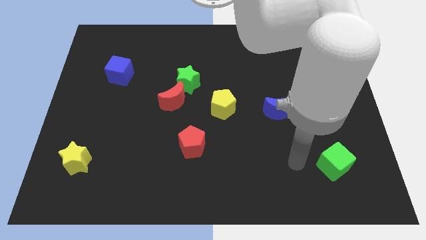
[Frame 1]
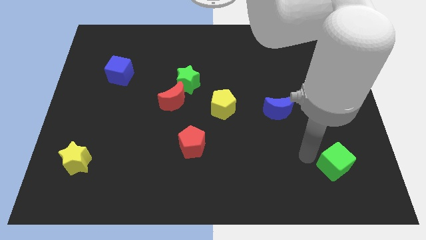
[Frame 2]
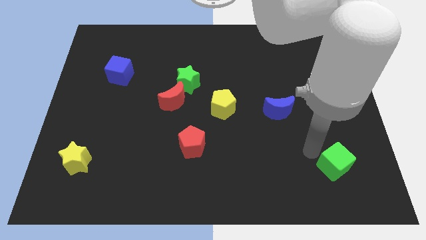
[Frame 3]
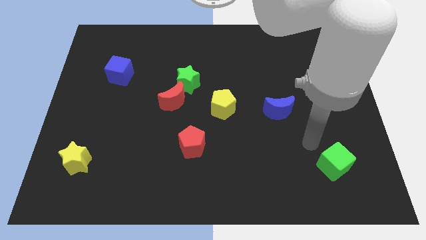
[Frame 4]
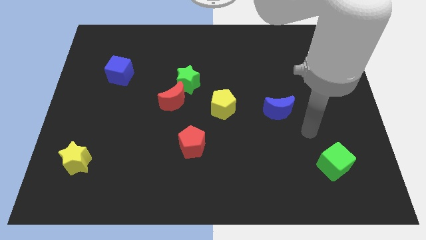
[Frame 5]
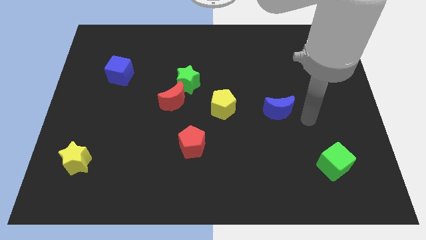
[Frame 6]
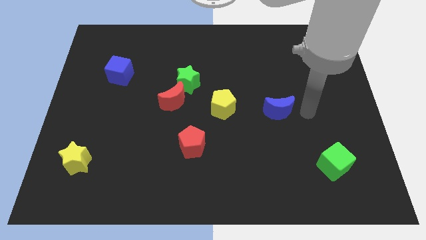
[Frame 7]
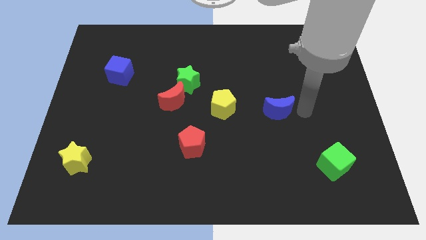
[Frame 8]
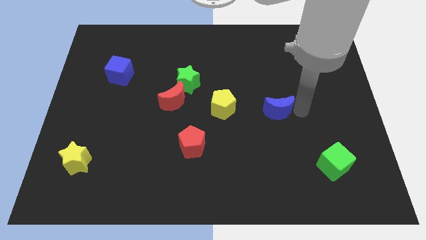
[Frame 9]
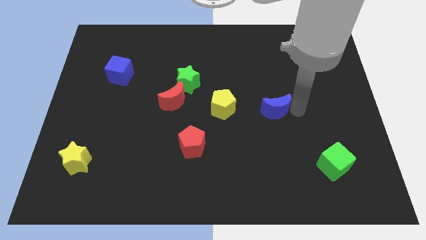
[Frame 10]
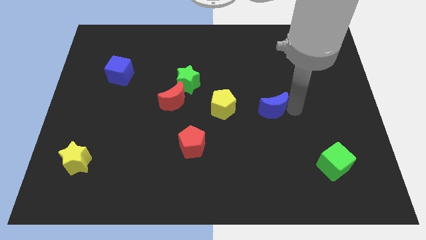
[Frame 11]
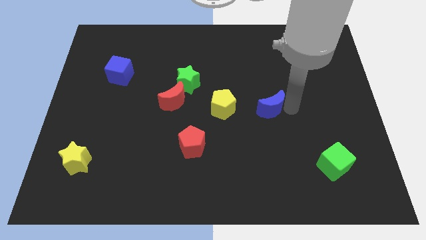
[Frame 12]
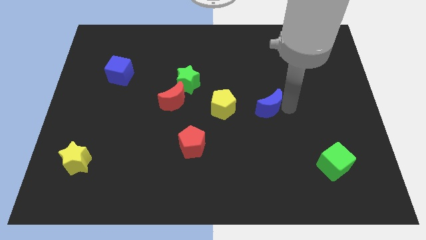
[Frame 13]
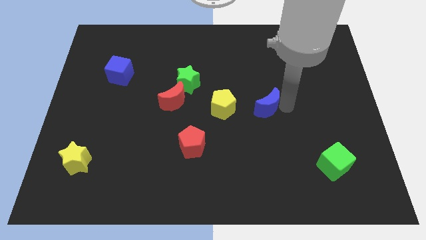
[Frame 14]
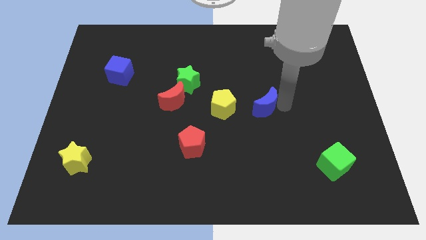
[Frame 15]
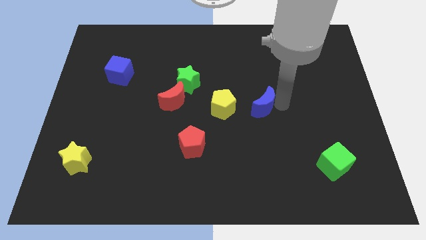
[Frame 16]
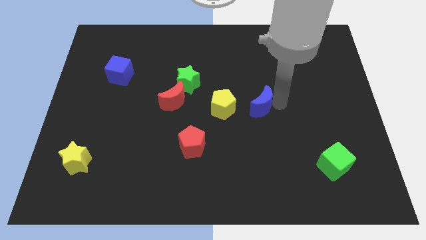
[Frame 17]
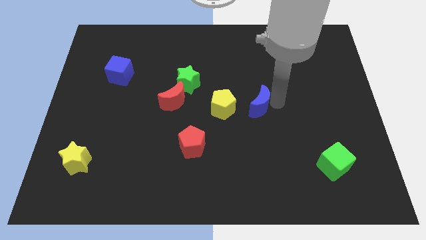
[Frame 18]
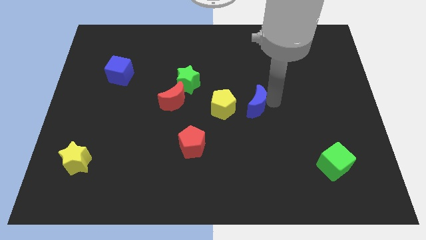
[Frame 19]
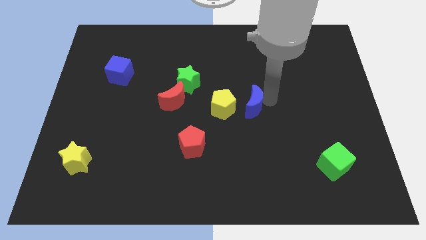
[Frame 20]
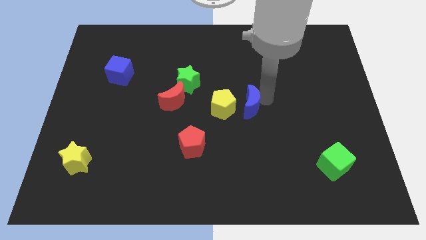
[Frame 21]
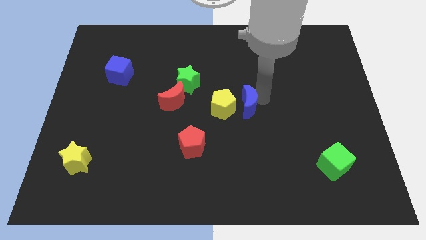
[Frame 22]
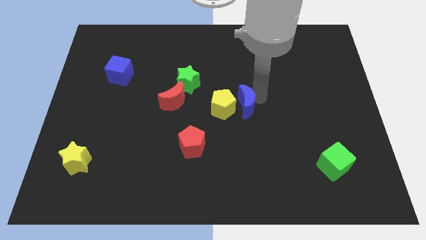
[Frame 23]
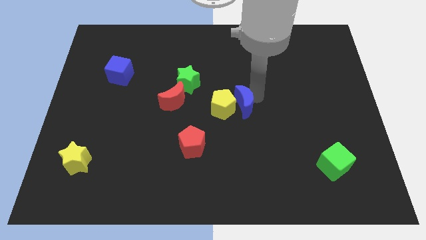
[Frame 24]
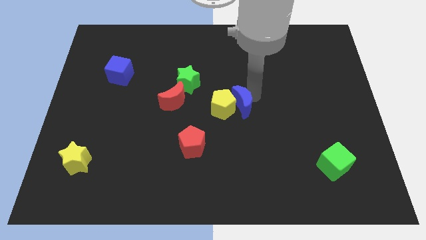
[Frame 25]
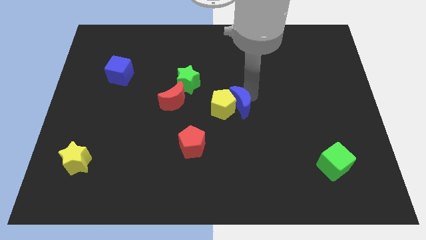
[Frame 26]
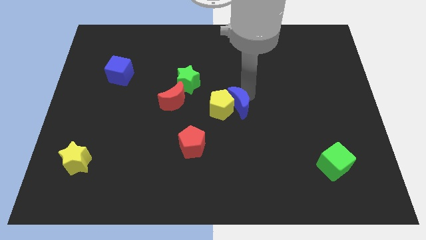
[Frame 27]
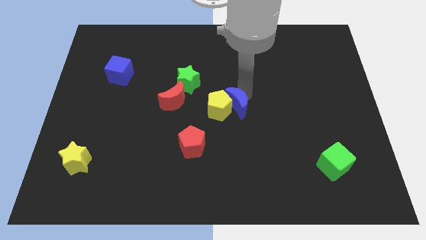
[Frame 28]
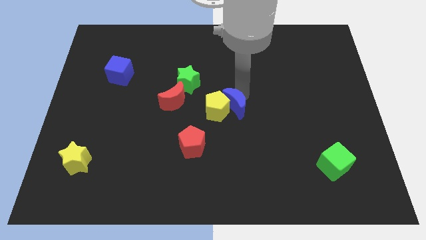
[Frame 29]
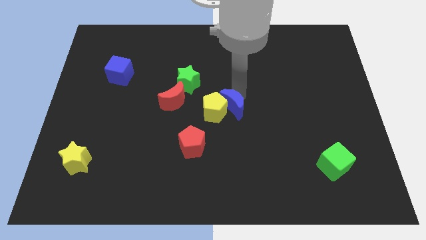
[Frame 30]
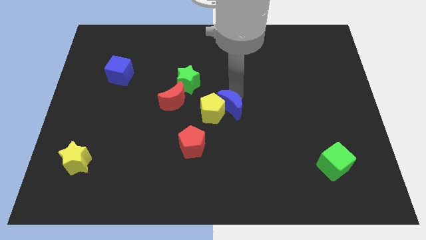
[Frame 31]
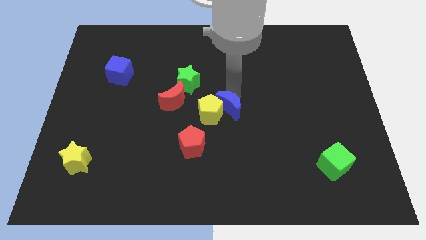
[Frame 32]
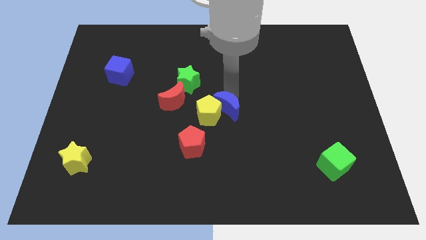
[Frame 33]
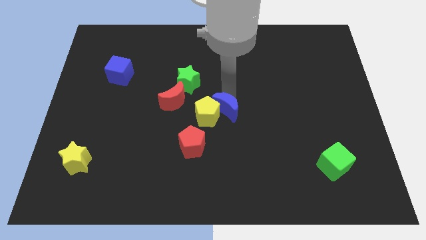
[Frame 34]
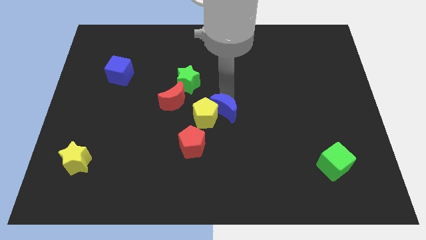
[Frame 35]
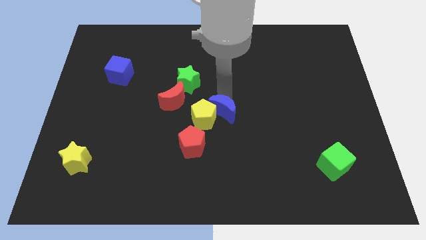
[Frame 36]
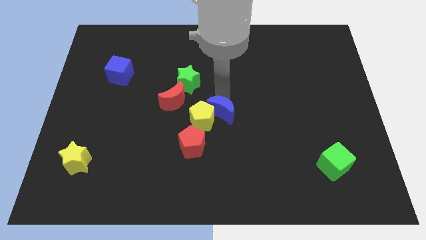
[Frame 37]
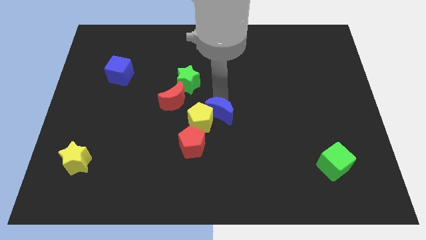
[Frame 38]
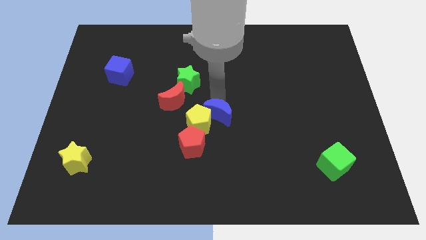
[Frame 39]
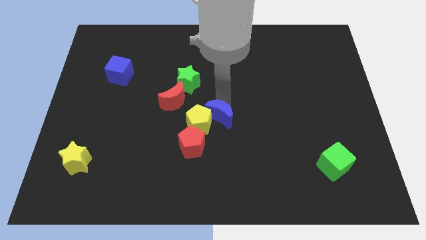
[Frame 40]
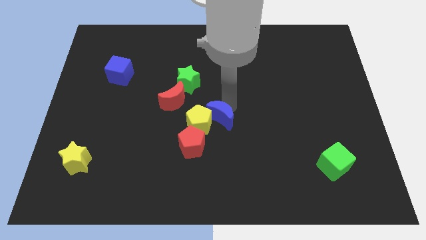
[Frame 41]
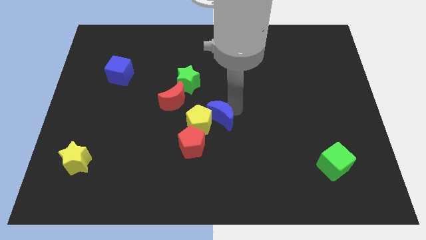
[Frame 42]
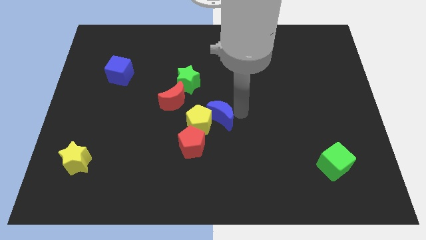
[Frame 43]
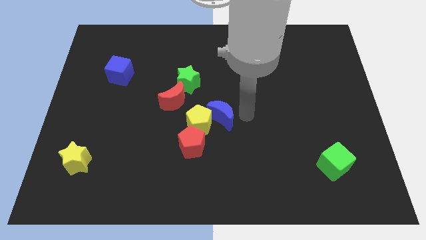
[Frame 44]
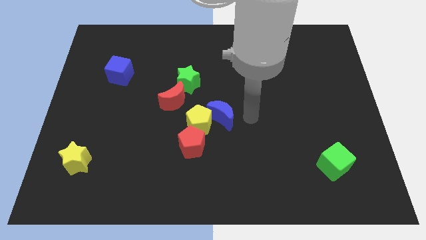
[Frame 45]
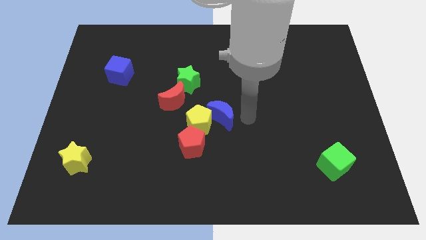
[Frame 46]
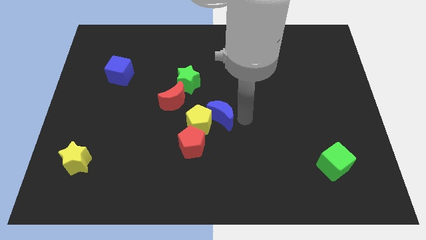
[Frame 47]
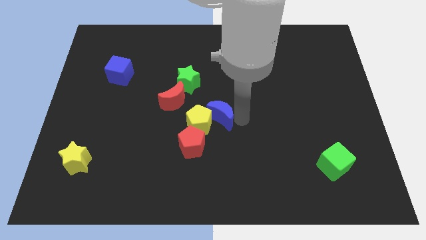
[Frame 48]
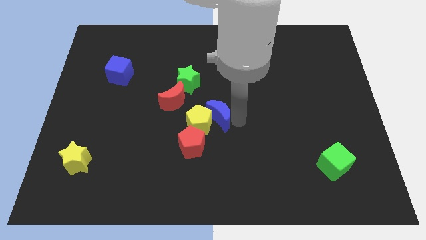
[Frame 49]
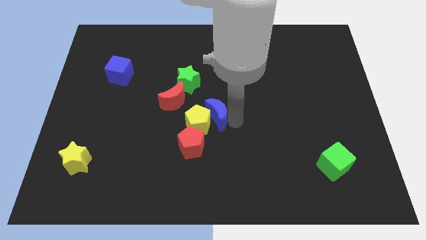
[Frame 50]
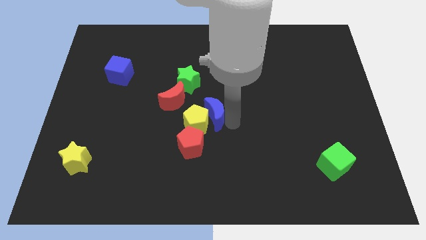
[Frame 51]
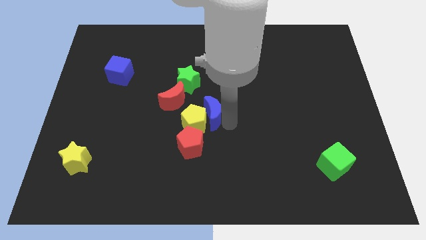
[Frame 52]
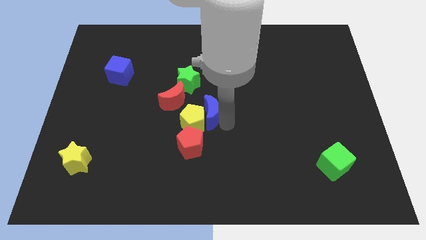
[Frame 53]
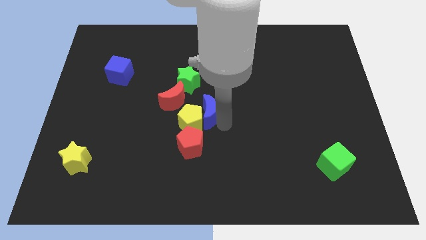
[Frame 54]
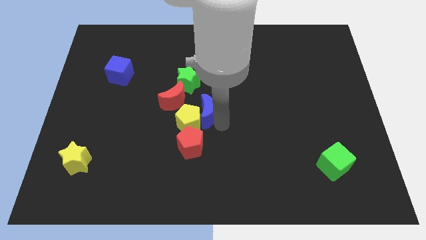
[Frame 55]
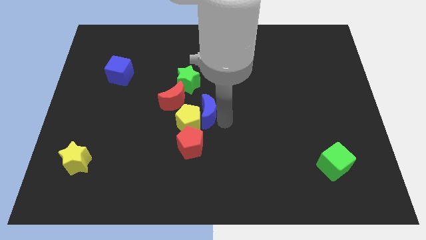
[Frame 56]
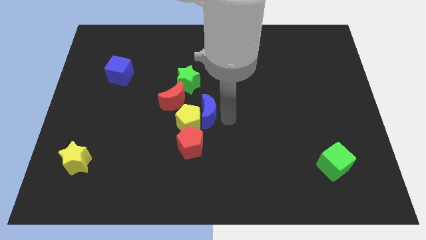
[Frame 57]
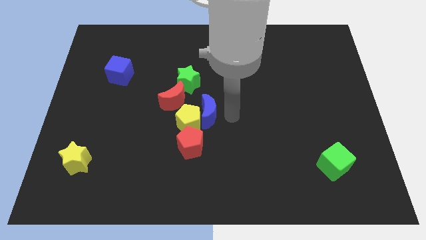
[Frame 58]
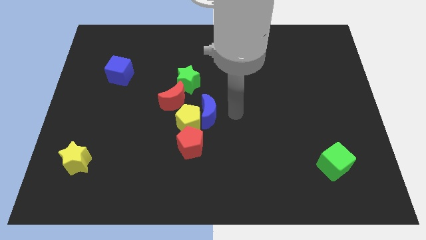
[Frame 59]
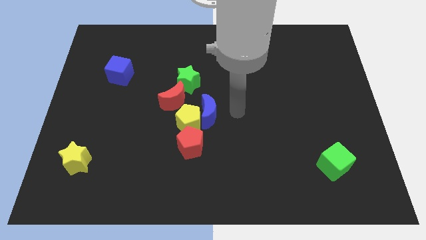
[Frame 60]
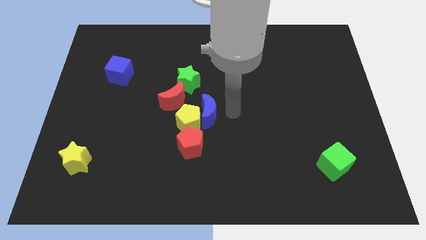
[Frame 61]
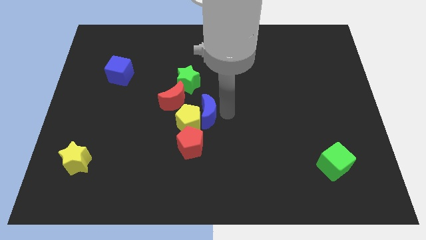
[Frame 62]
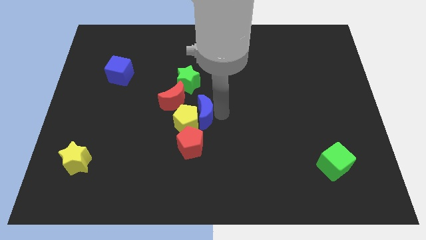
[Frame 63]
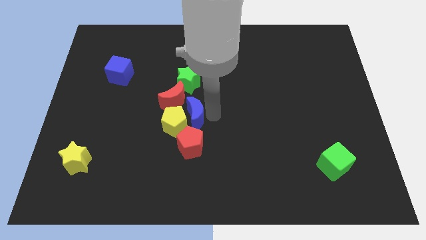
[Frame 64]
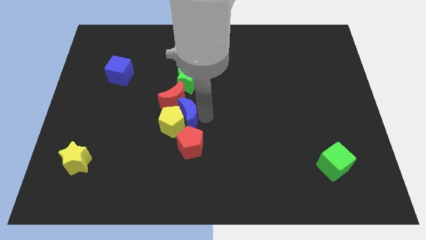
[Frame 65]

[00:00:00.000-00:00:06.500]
move the blue moon left

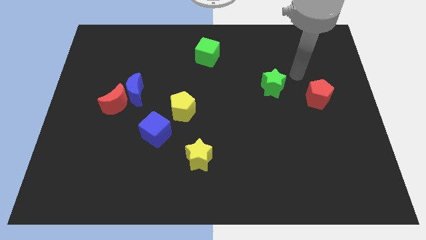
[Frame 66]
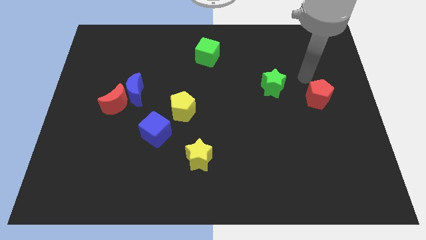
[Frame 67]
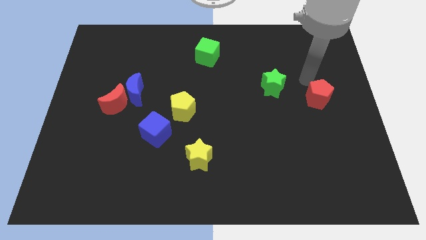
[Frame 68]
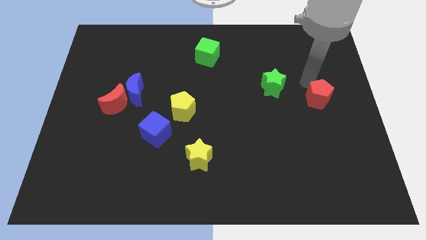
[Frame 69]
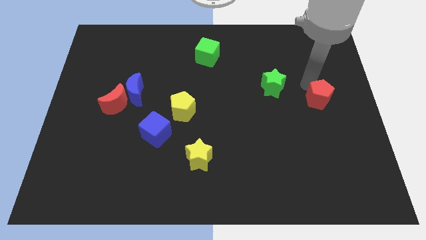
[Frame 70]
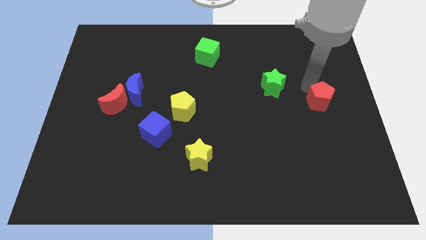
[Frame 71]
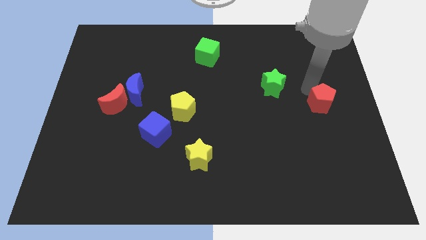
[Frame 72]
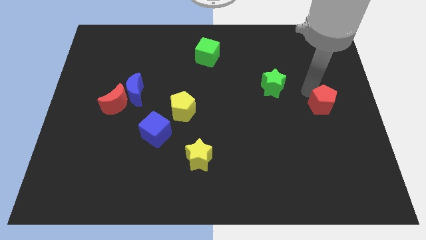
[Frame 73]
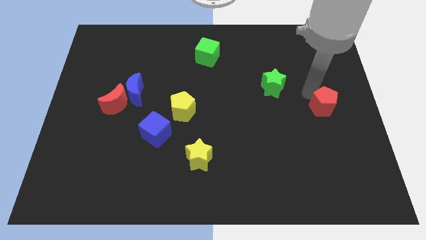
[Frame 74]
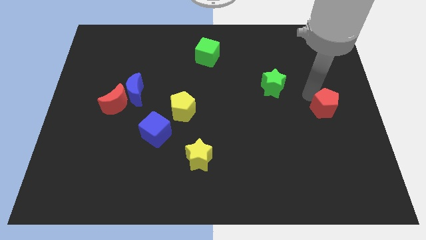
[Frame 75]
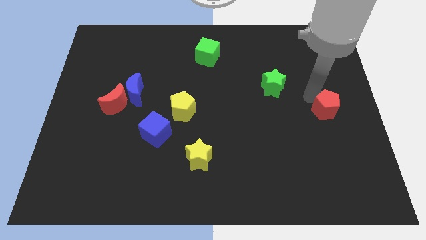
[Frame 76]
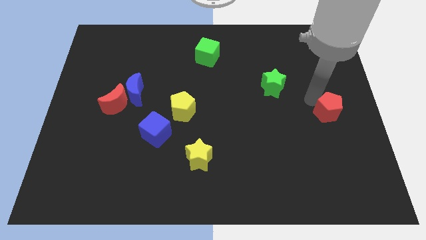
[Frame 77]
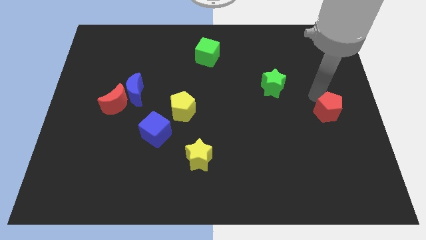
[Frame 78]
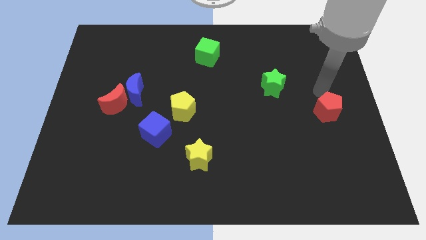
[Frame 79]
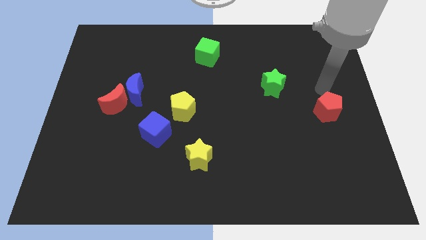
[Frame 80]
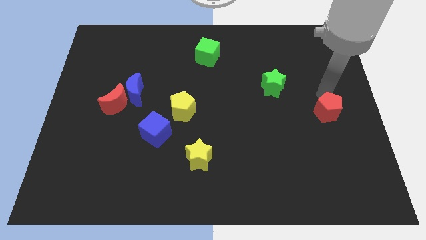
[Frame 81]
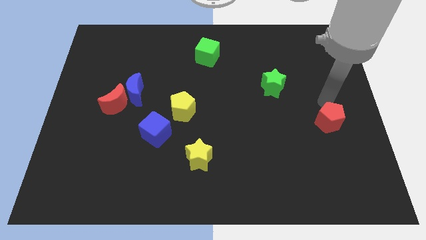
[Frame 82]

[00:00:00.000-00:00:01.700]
slightly slide the red pentagon down
